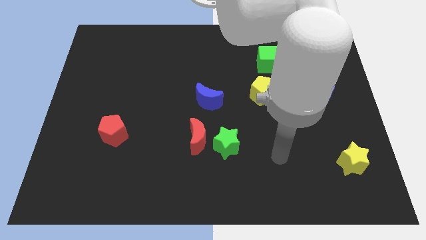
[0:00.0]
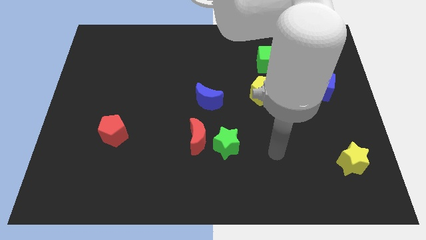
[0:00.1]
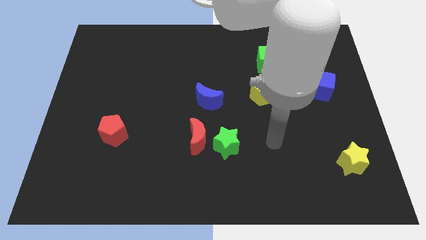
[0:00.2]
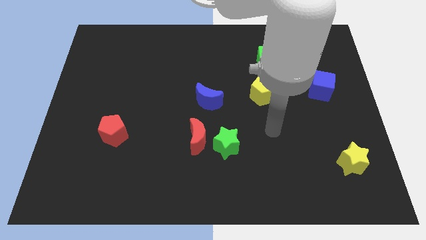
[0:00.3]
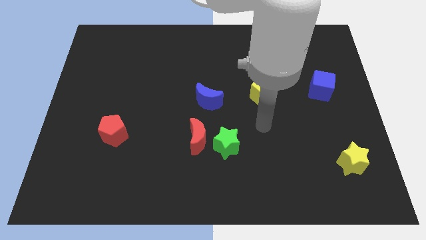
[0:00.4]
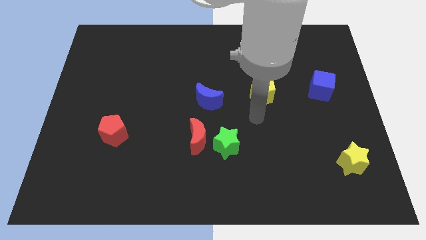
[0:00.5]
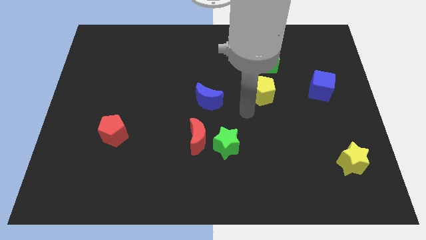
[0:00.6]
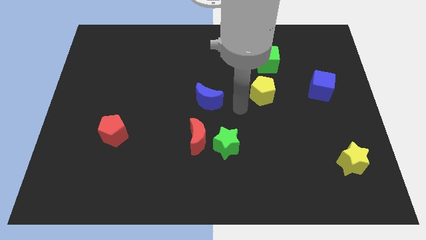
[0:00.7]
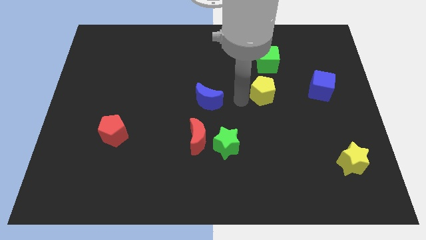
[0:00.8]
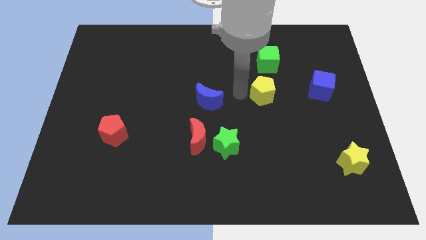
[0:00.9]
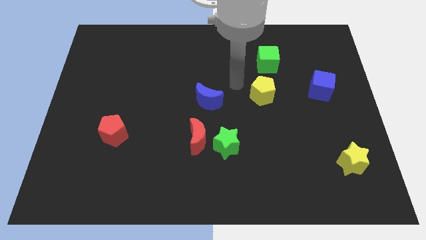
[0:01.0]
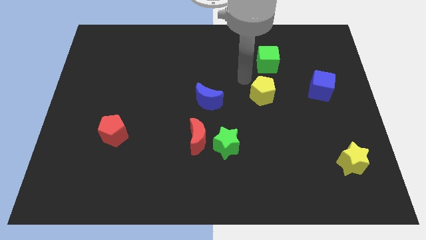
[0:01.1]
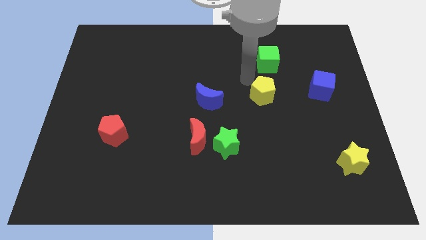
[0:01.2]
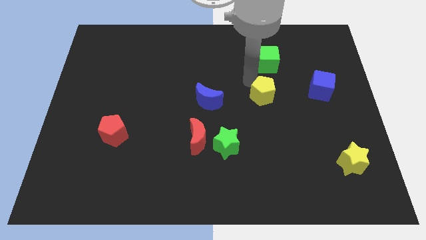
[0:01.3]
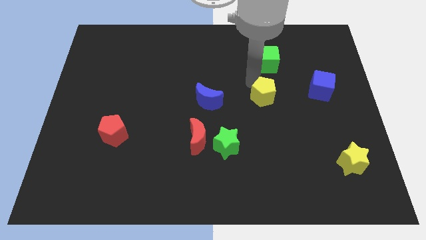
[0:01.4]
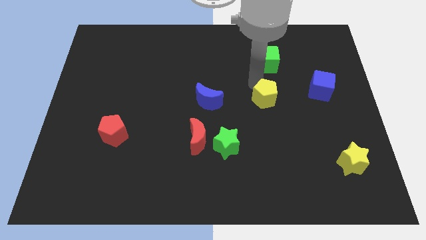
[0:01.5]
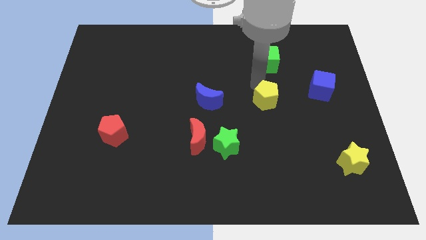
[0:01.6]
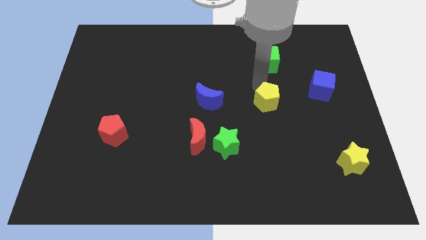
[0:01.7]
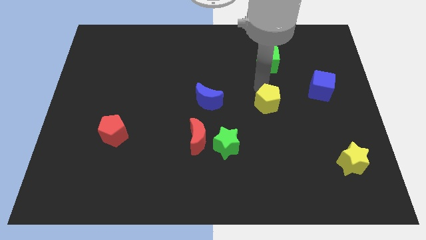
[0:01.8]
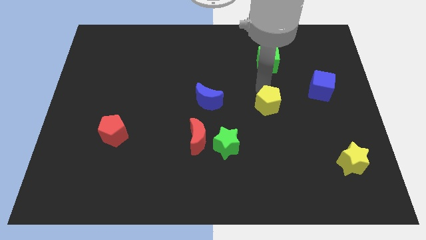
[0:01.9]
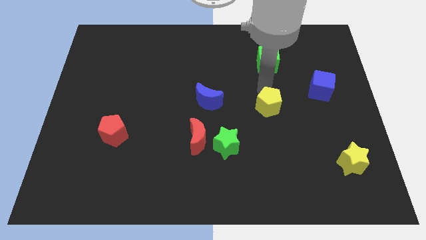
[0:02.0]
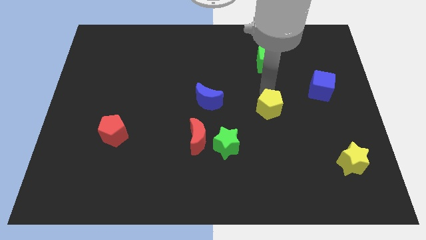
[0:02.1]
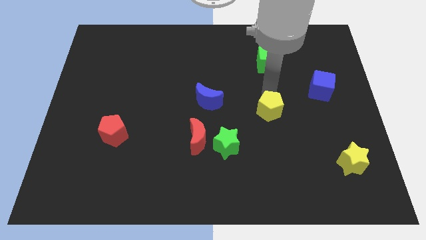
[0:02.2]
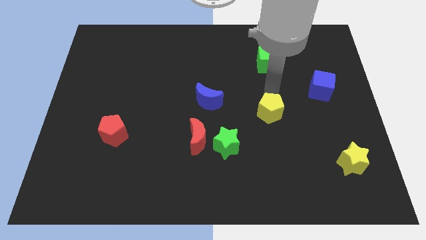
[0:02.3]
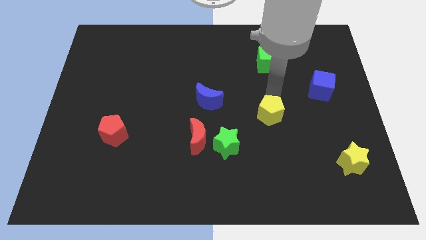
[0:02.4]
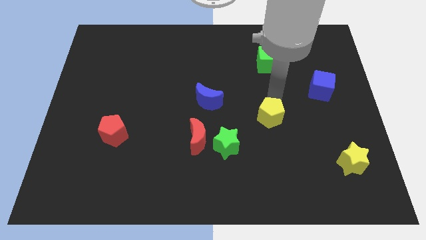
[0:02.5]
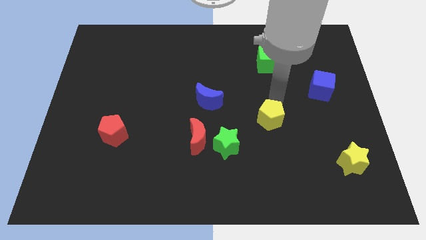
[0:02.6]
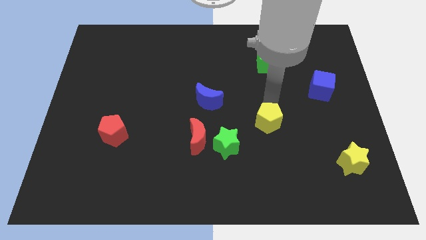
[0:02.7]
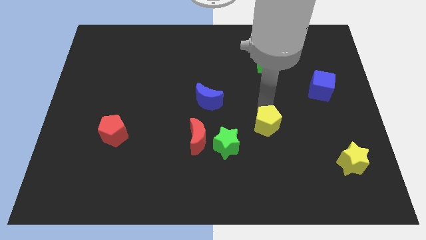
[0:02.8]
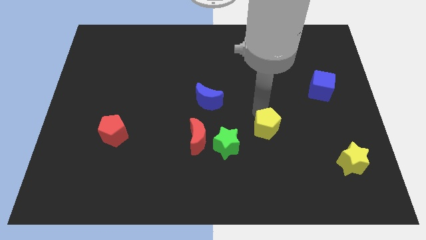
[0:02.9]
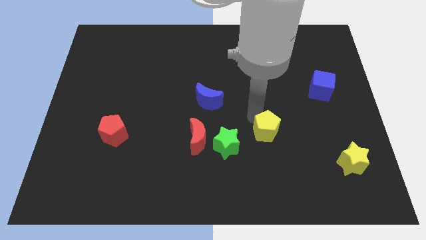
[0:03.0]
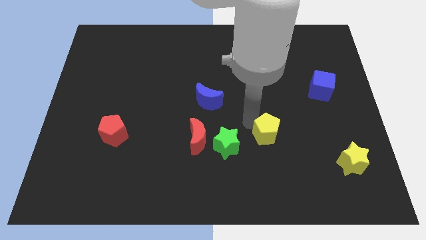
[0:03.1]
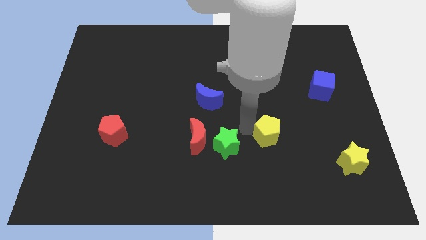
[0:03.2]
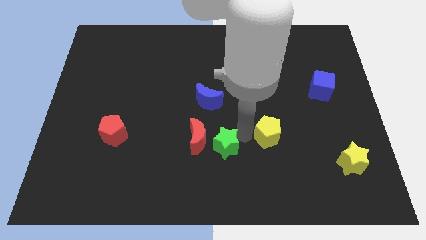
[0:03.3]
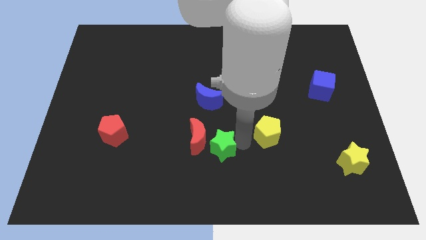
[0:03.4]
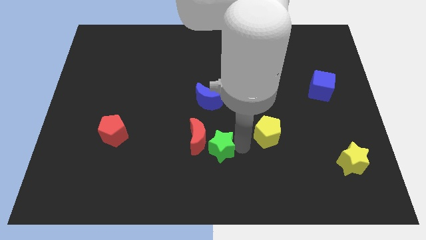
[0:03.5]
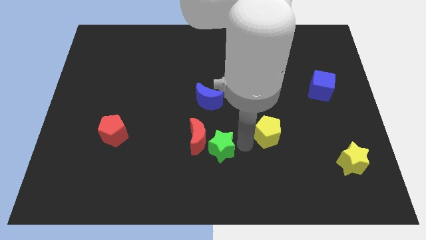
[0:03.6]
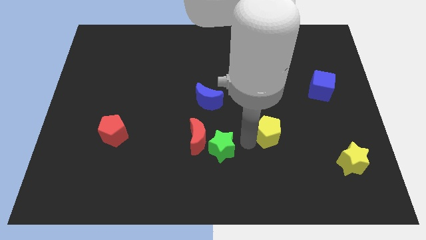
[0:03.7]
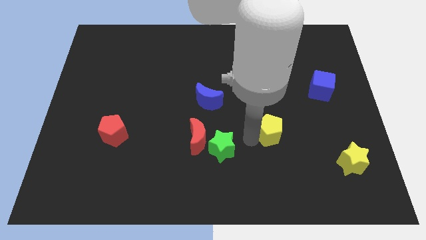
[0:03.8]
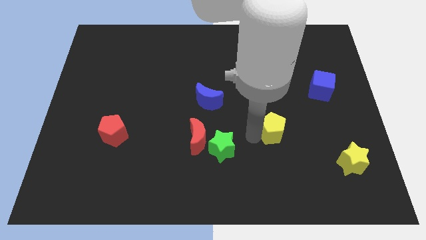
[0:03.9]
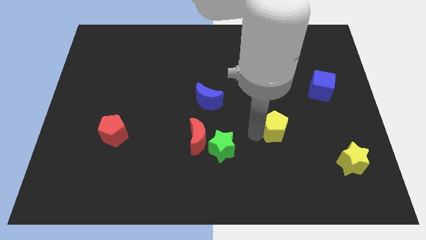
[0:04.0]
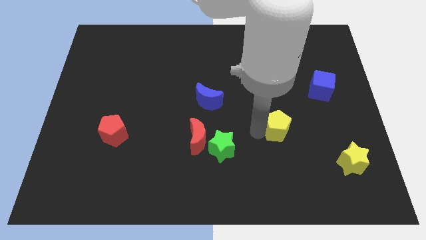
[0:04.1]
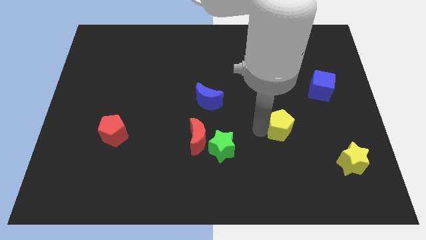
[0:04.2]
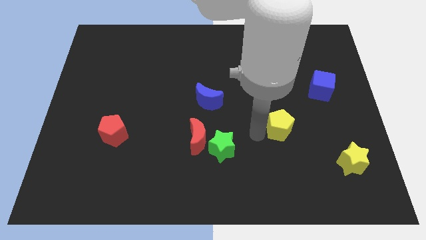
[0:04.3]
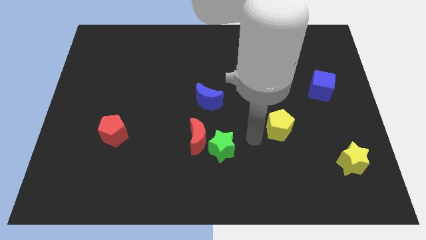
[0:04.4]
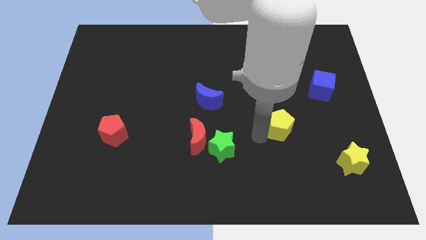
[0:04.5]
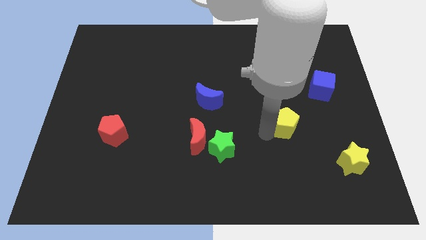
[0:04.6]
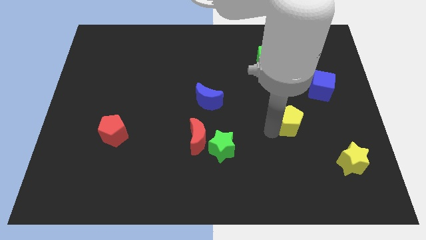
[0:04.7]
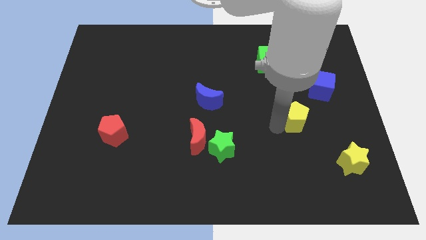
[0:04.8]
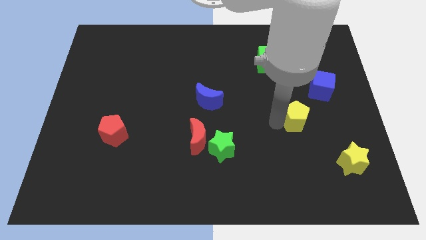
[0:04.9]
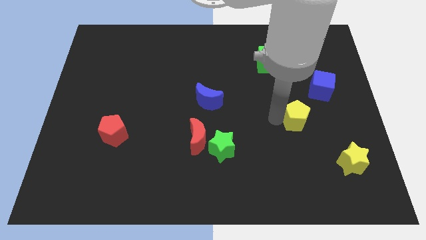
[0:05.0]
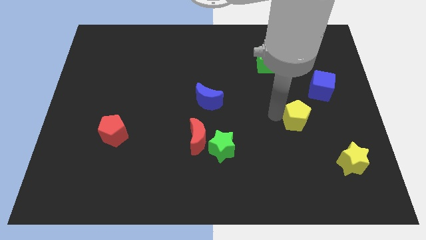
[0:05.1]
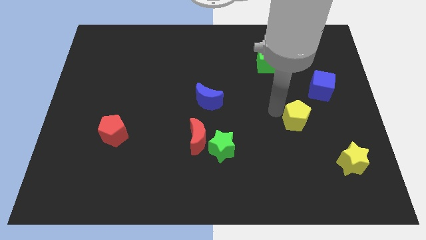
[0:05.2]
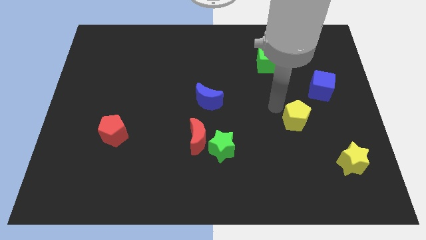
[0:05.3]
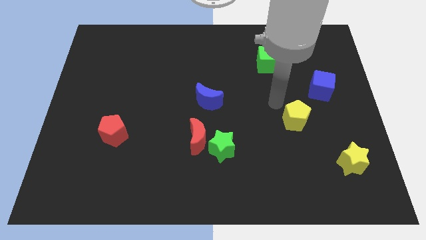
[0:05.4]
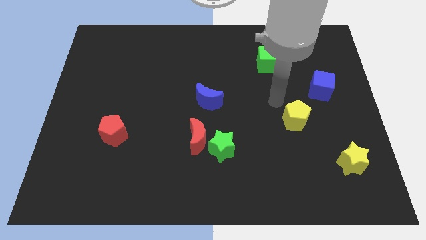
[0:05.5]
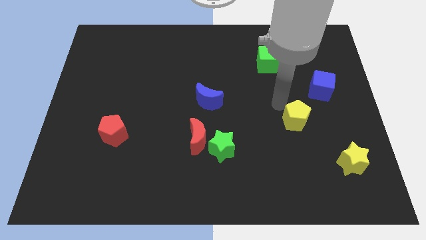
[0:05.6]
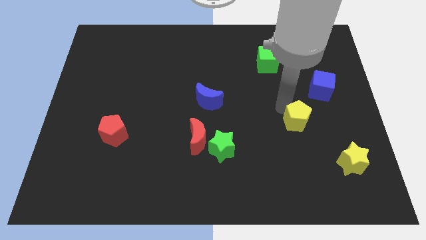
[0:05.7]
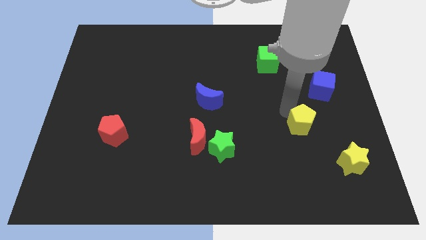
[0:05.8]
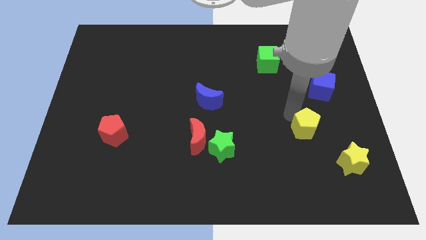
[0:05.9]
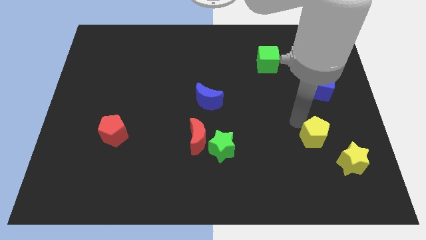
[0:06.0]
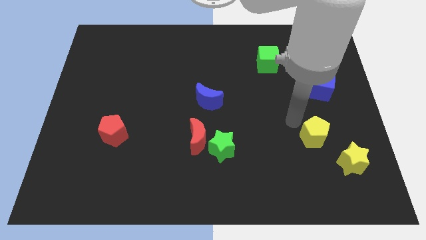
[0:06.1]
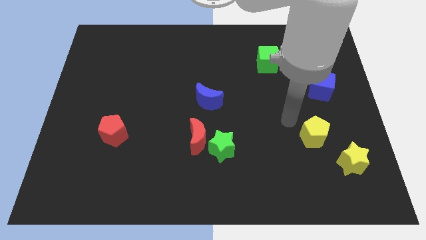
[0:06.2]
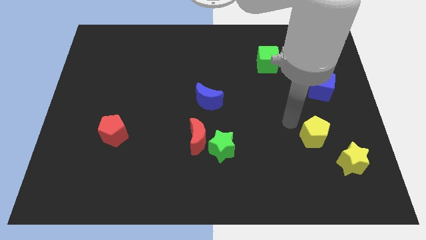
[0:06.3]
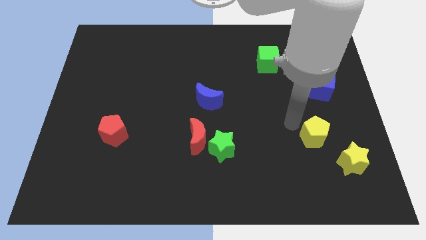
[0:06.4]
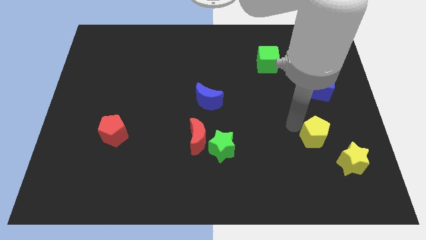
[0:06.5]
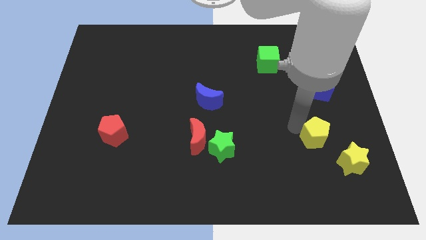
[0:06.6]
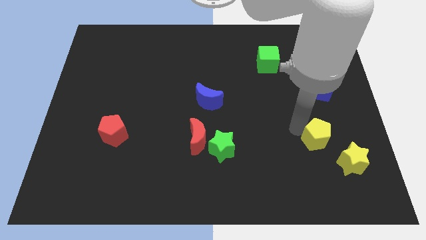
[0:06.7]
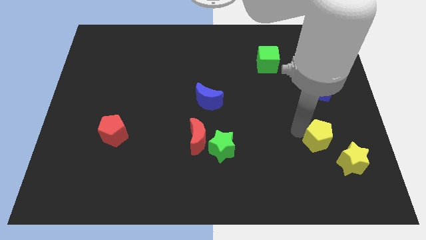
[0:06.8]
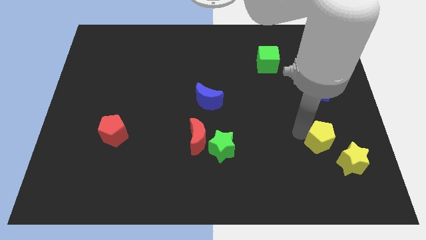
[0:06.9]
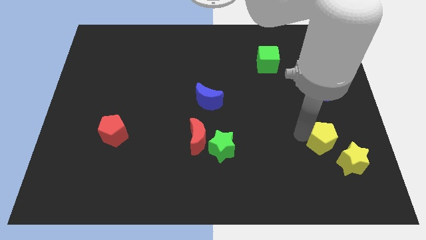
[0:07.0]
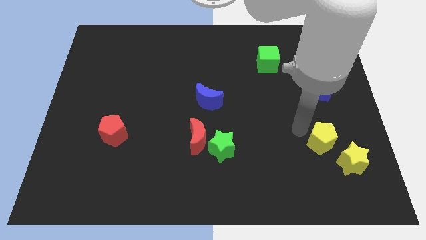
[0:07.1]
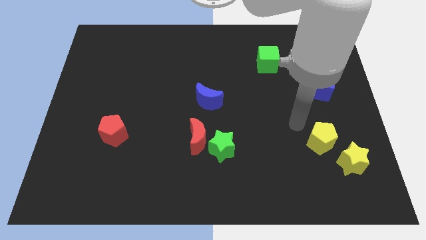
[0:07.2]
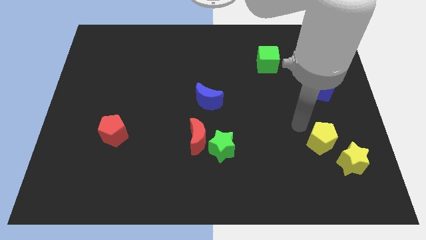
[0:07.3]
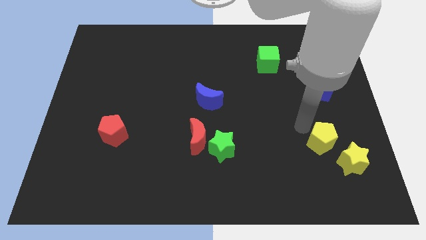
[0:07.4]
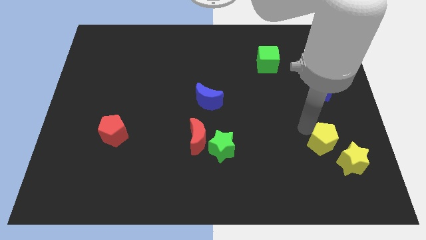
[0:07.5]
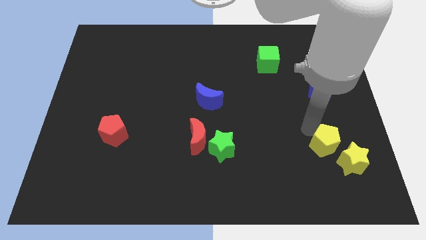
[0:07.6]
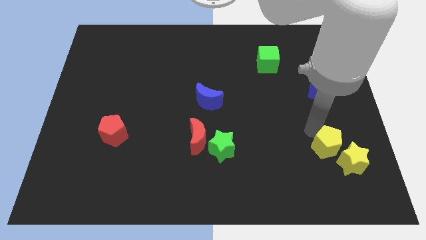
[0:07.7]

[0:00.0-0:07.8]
slide the yellow pentagon next to the yellow star
